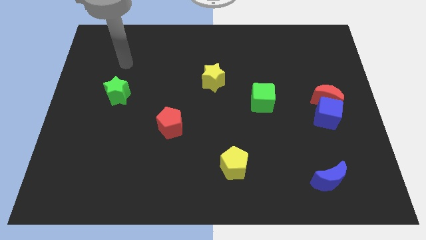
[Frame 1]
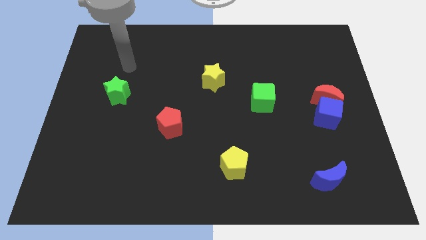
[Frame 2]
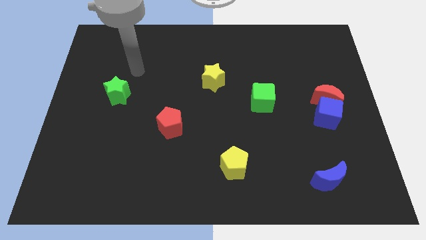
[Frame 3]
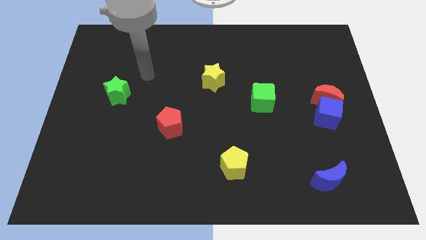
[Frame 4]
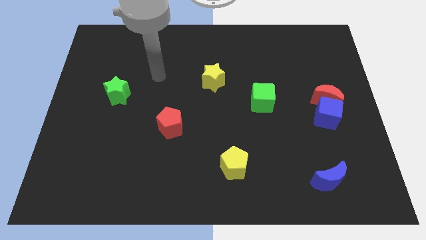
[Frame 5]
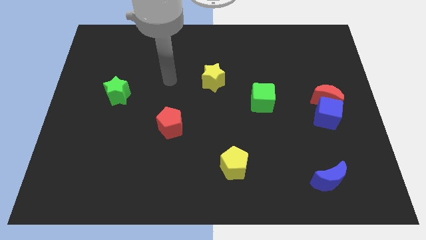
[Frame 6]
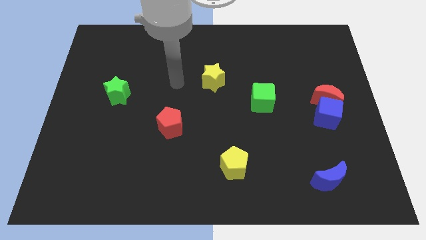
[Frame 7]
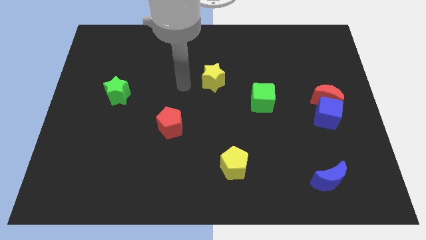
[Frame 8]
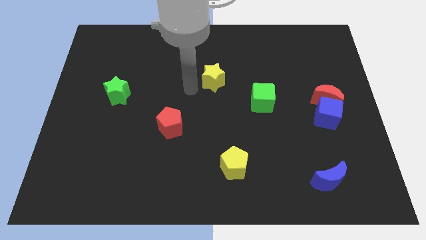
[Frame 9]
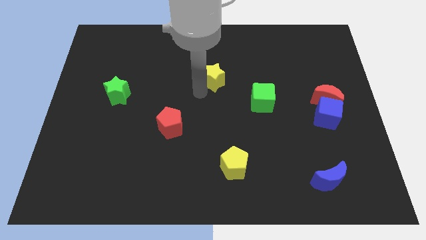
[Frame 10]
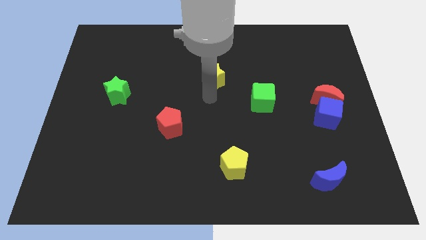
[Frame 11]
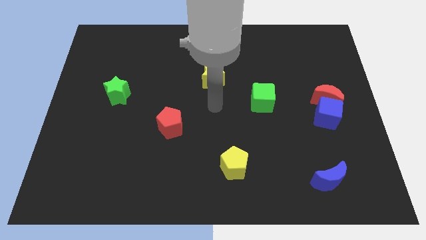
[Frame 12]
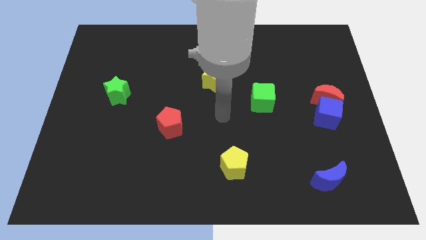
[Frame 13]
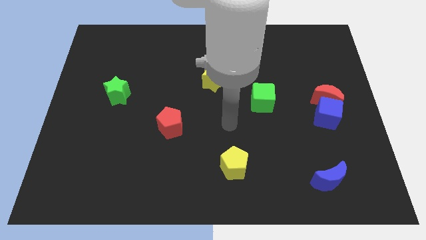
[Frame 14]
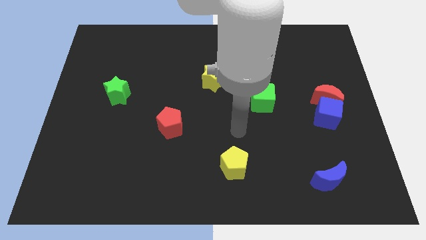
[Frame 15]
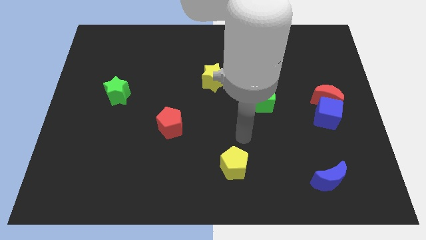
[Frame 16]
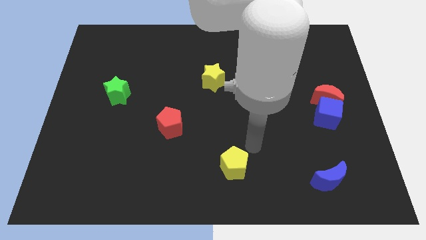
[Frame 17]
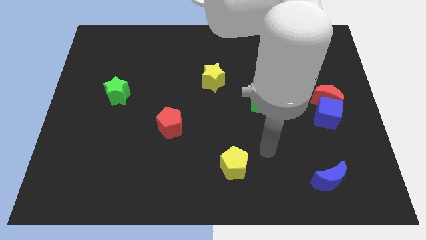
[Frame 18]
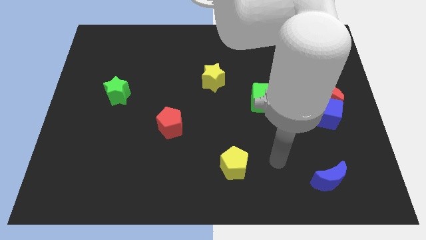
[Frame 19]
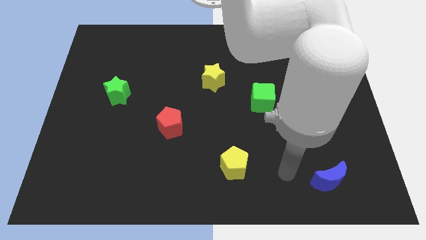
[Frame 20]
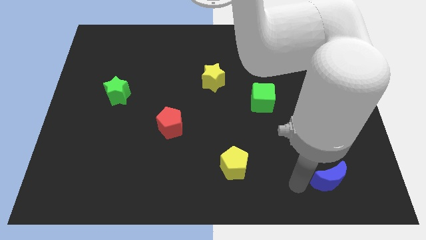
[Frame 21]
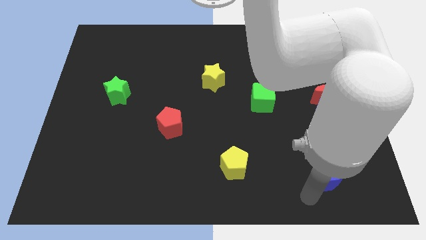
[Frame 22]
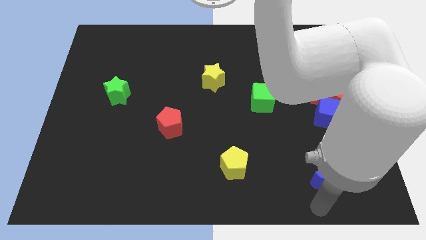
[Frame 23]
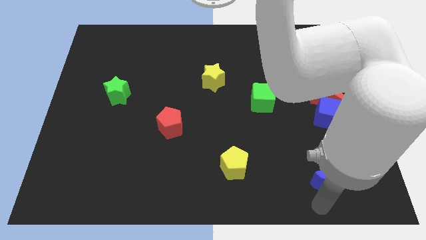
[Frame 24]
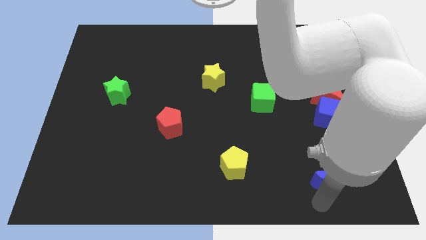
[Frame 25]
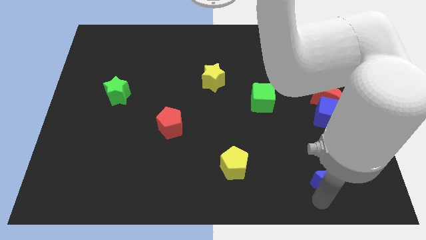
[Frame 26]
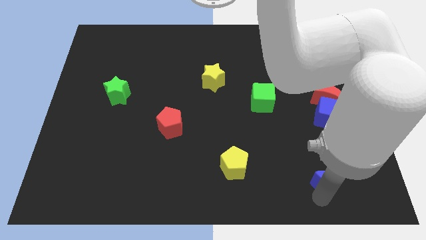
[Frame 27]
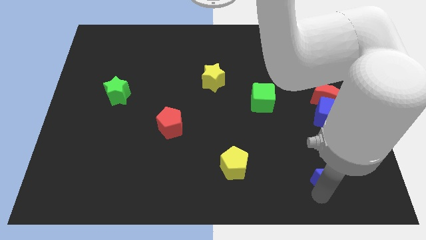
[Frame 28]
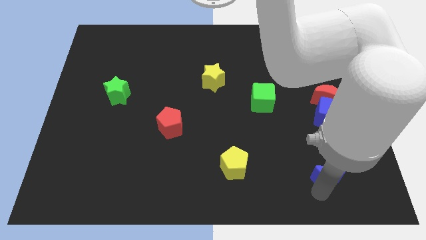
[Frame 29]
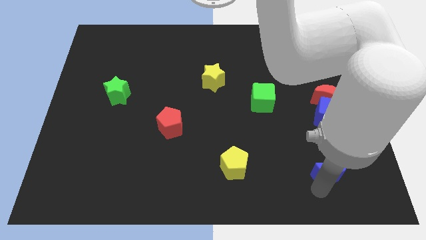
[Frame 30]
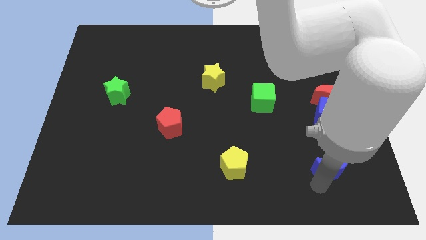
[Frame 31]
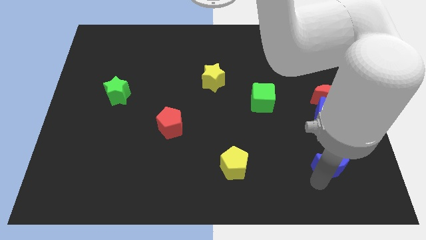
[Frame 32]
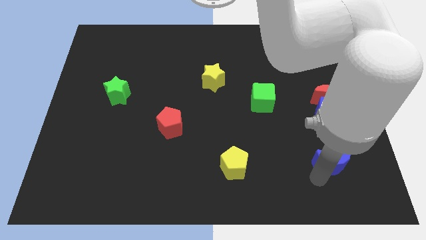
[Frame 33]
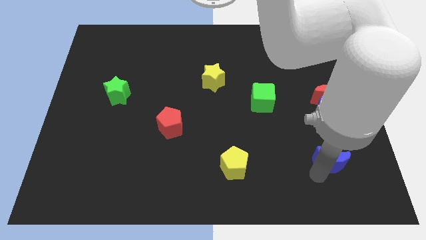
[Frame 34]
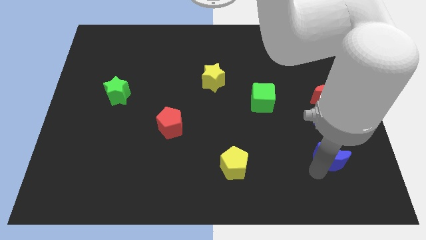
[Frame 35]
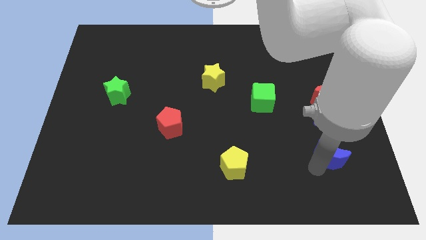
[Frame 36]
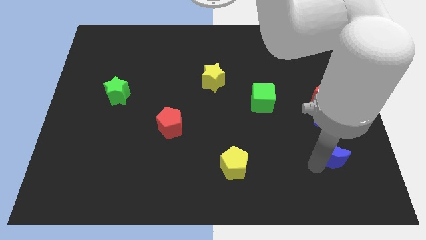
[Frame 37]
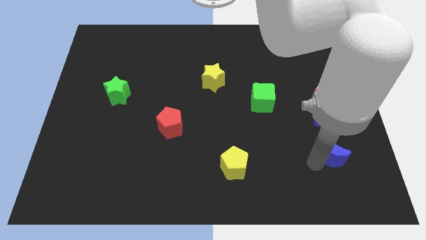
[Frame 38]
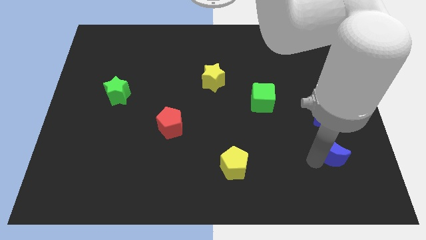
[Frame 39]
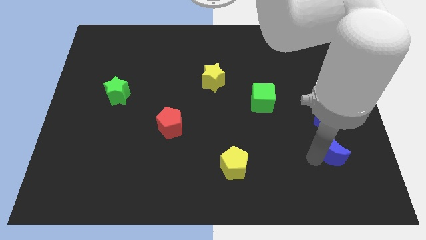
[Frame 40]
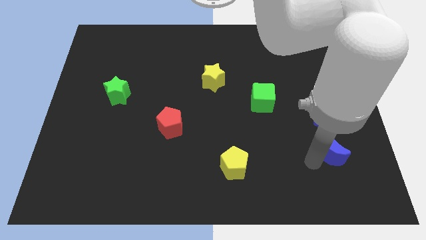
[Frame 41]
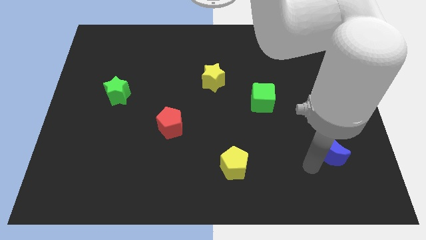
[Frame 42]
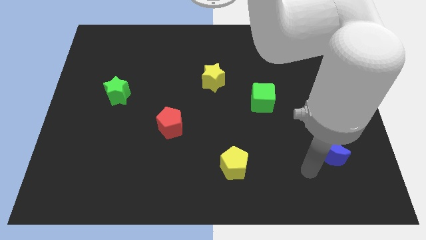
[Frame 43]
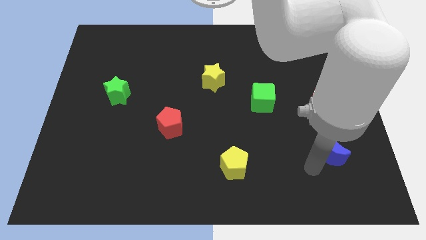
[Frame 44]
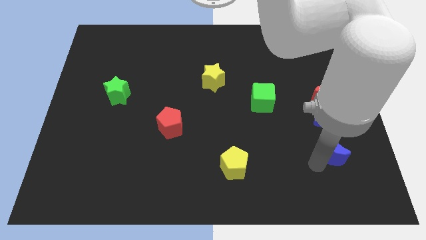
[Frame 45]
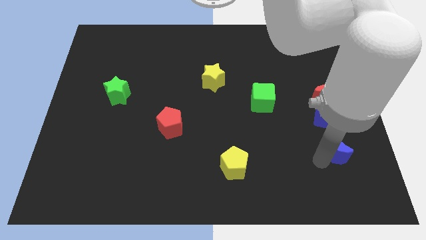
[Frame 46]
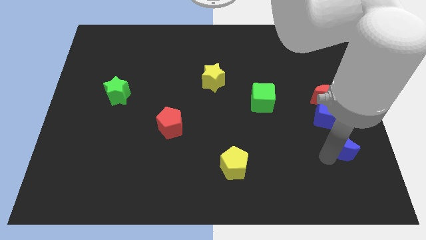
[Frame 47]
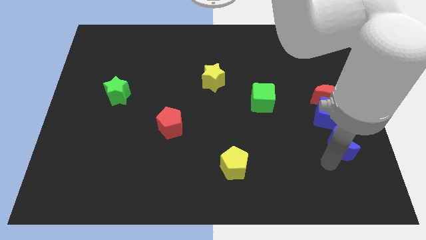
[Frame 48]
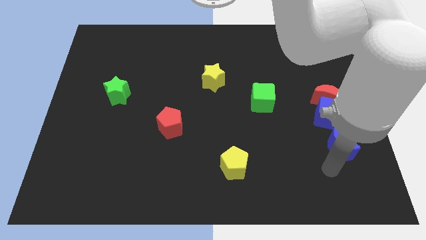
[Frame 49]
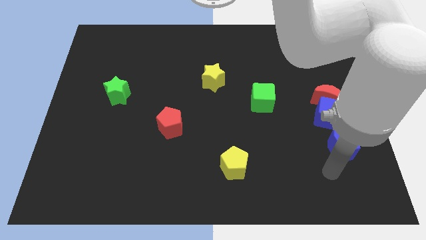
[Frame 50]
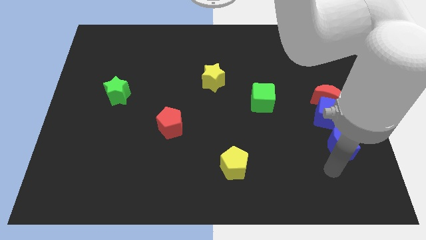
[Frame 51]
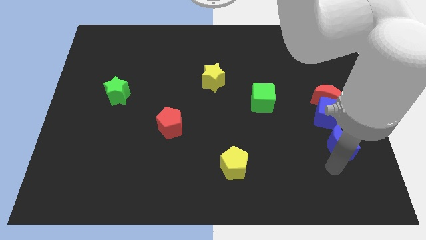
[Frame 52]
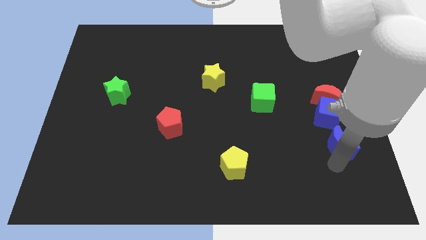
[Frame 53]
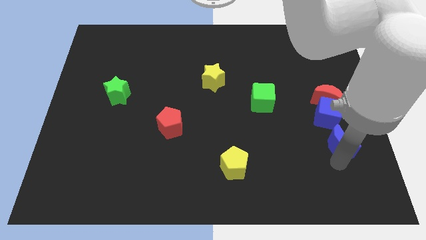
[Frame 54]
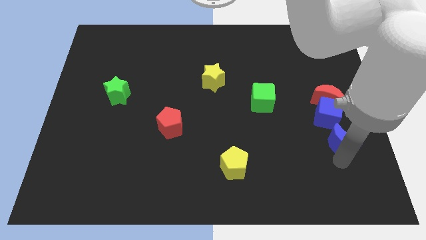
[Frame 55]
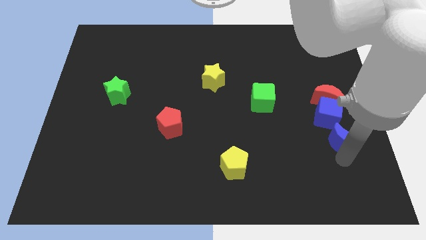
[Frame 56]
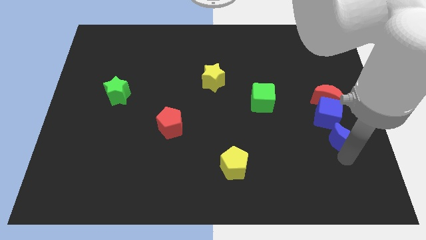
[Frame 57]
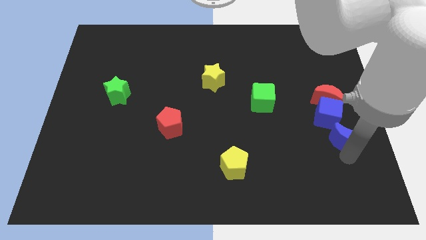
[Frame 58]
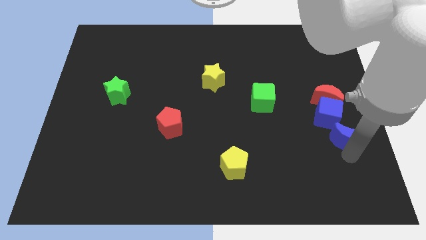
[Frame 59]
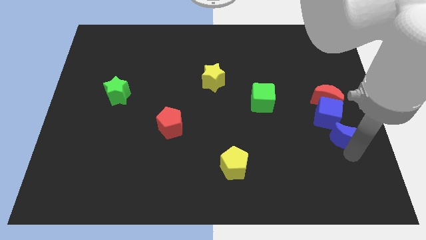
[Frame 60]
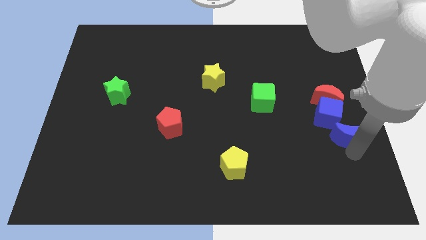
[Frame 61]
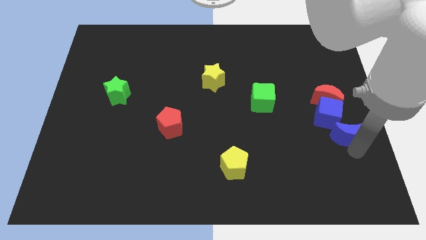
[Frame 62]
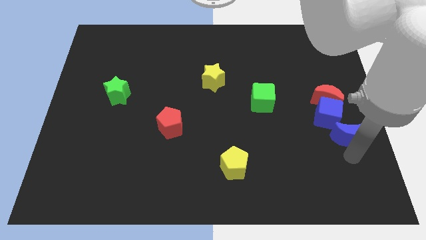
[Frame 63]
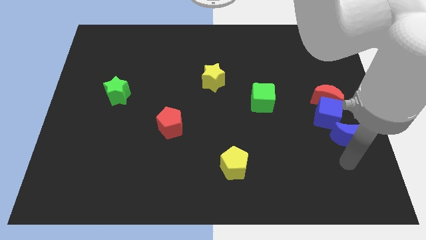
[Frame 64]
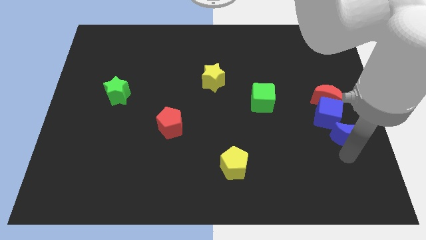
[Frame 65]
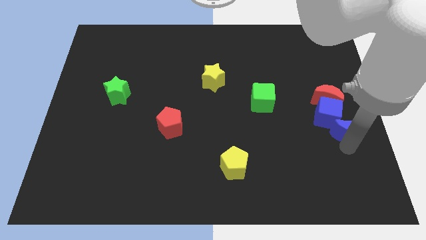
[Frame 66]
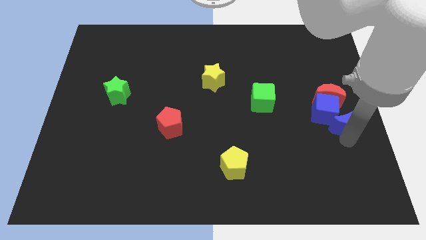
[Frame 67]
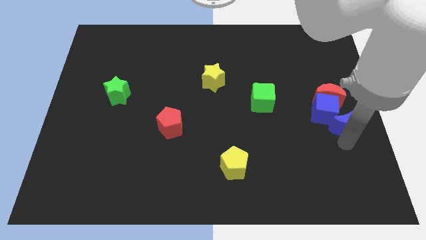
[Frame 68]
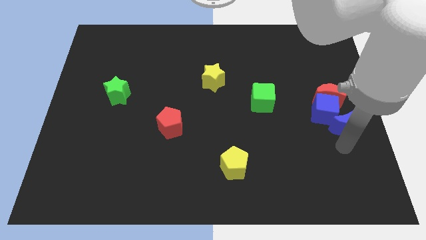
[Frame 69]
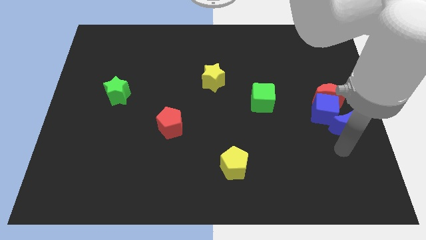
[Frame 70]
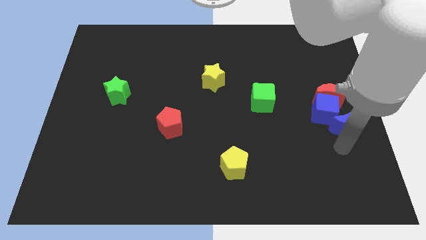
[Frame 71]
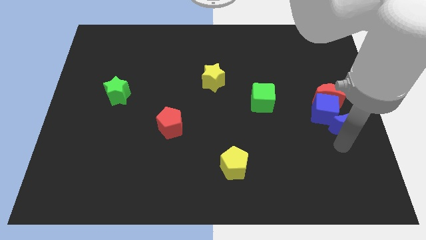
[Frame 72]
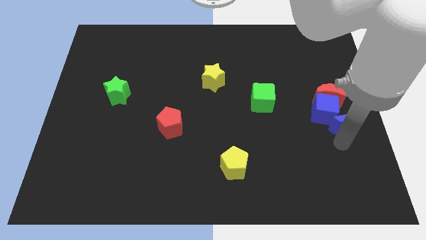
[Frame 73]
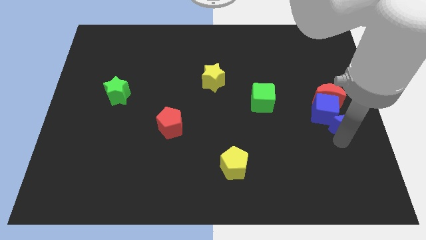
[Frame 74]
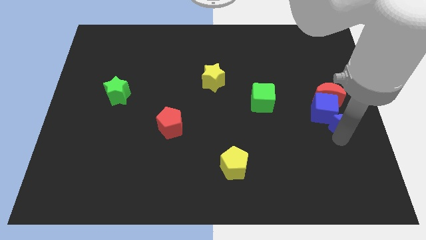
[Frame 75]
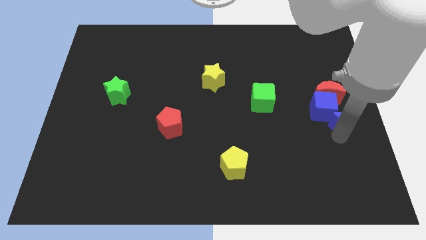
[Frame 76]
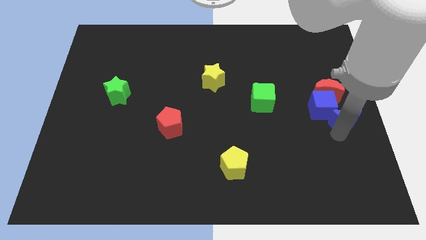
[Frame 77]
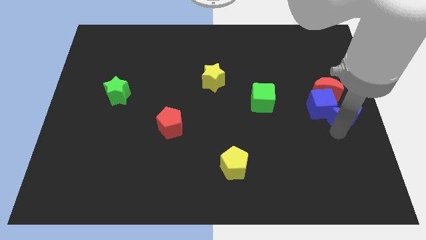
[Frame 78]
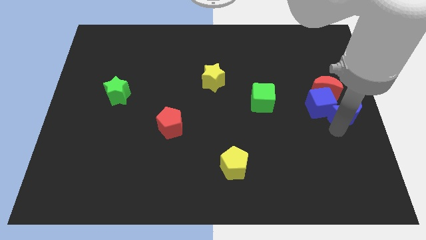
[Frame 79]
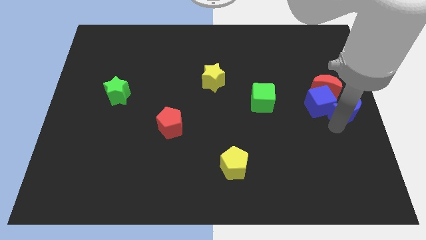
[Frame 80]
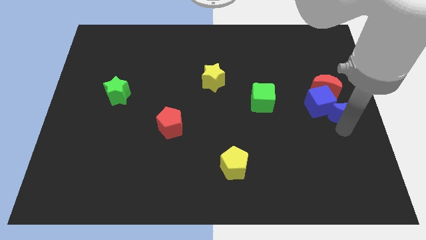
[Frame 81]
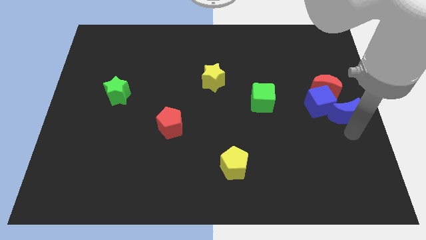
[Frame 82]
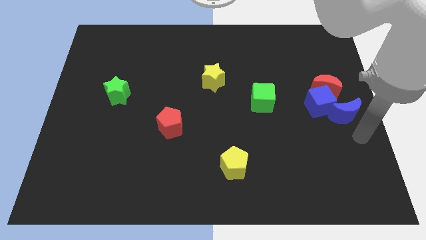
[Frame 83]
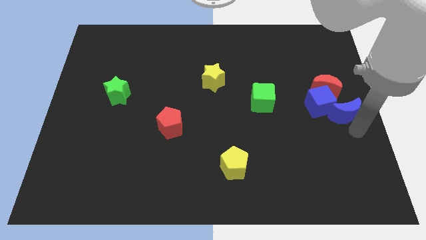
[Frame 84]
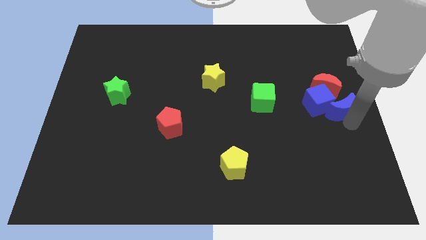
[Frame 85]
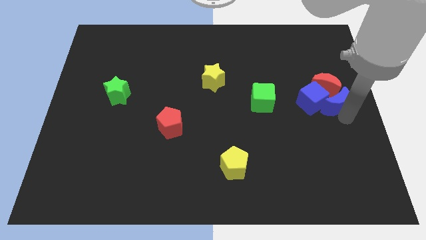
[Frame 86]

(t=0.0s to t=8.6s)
put the blue moon close to the red moon
